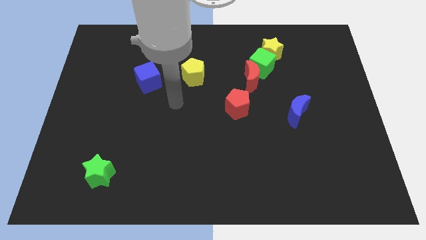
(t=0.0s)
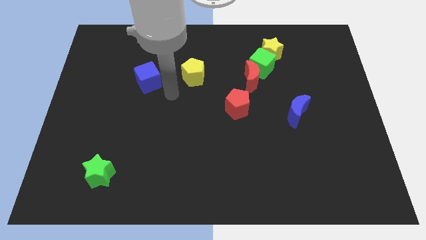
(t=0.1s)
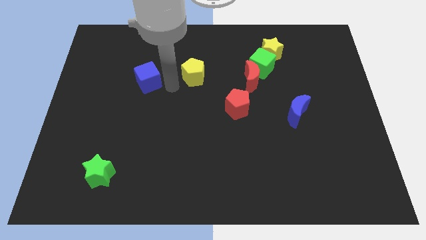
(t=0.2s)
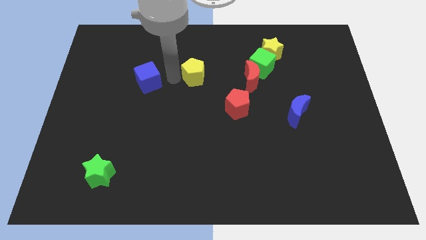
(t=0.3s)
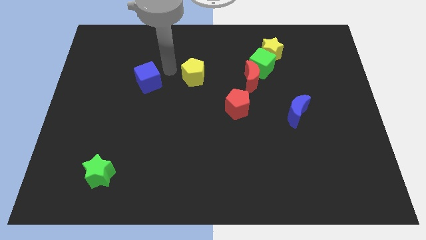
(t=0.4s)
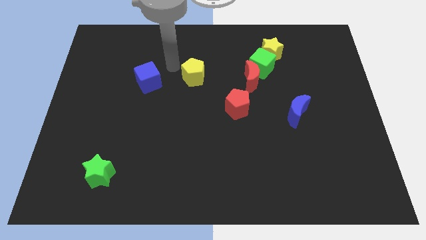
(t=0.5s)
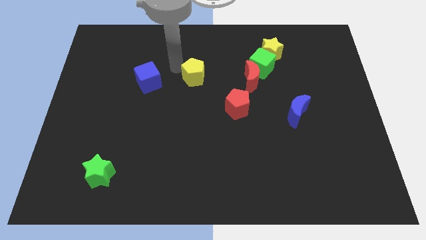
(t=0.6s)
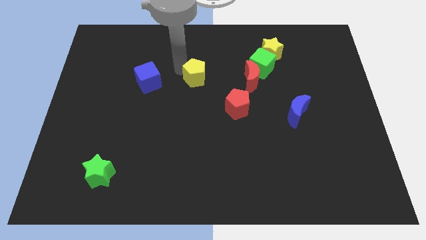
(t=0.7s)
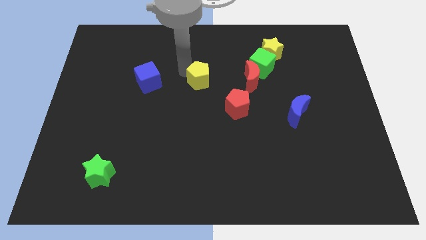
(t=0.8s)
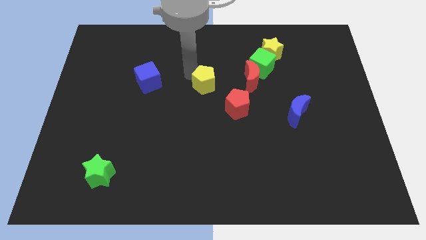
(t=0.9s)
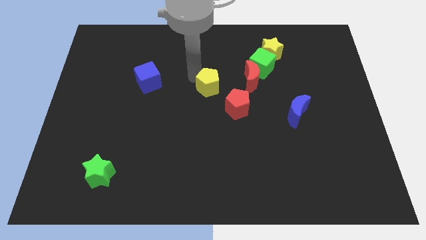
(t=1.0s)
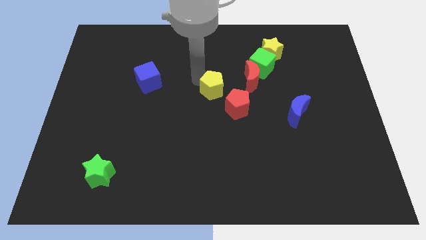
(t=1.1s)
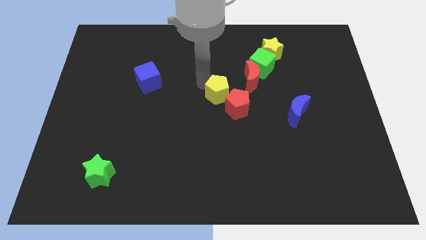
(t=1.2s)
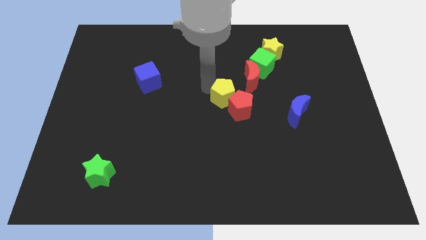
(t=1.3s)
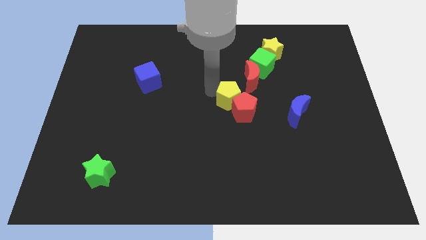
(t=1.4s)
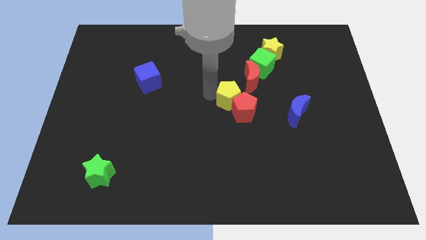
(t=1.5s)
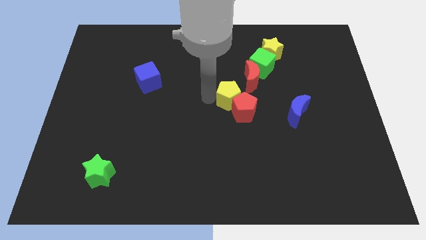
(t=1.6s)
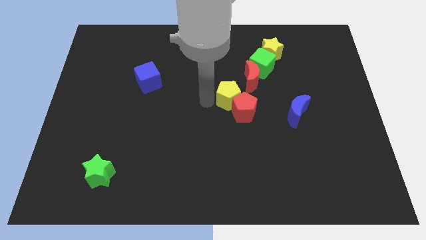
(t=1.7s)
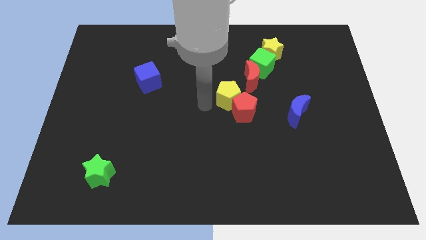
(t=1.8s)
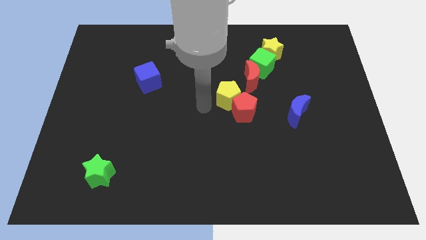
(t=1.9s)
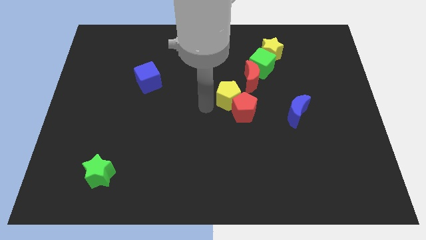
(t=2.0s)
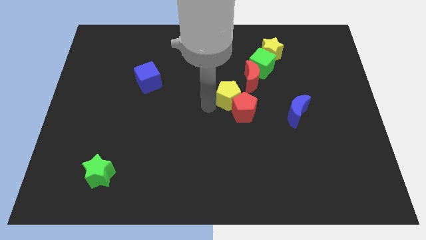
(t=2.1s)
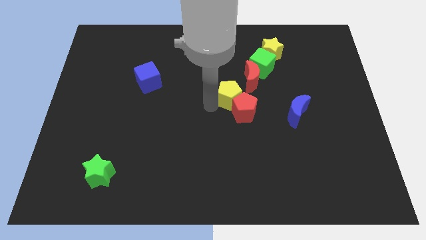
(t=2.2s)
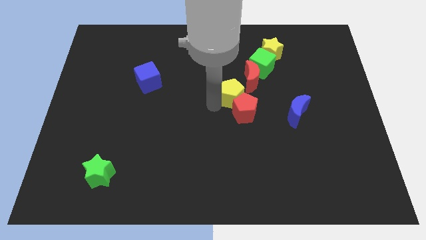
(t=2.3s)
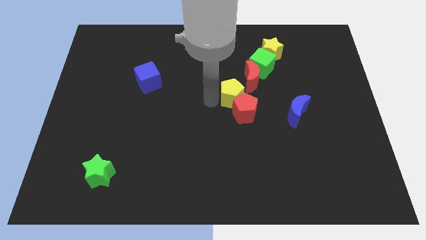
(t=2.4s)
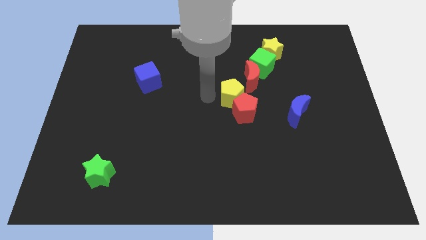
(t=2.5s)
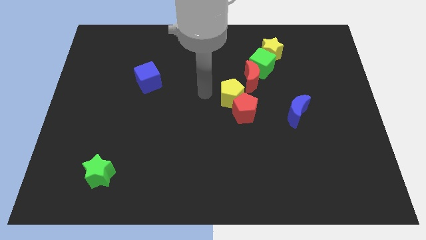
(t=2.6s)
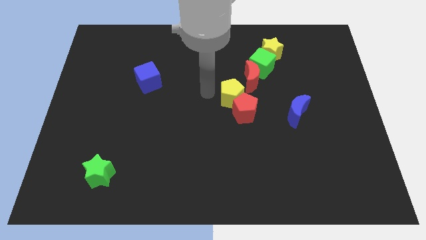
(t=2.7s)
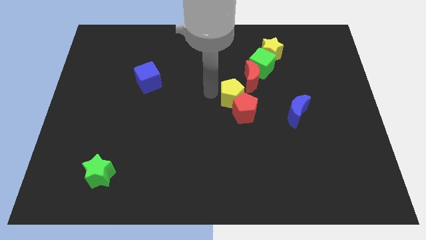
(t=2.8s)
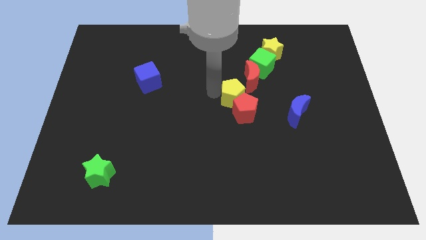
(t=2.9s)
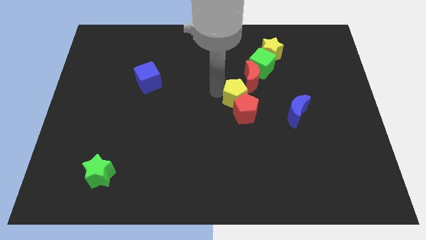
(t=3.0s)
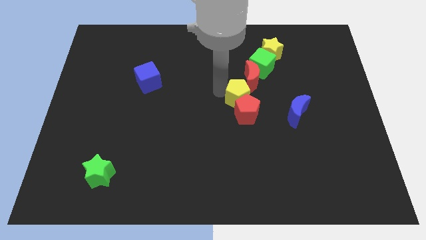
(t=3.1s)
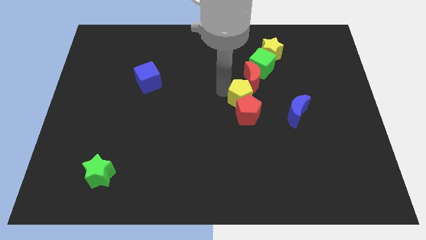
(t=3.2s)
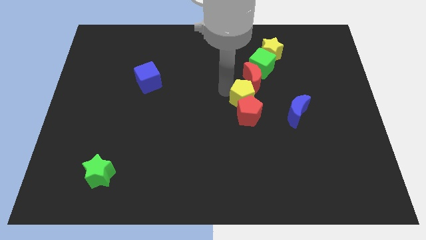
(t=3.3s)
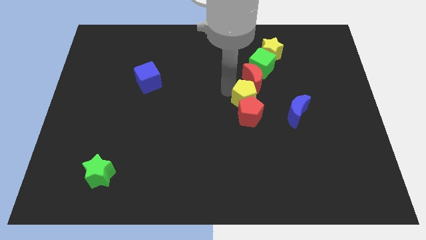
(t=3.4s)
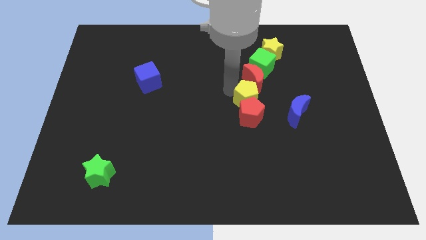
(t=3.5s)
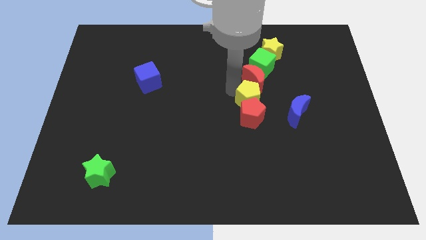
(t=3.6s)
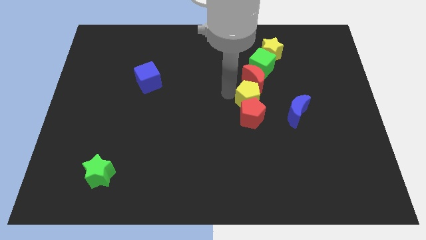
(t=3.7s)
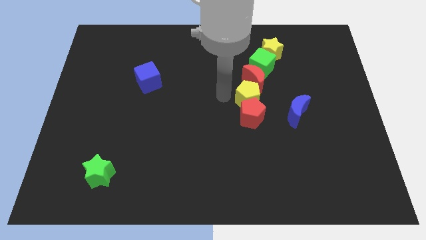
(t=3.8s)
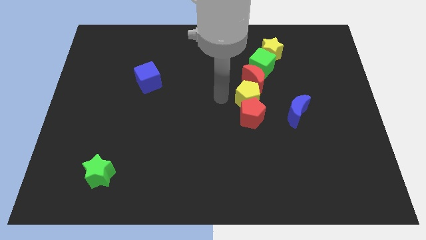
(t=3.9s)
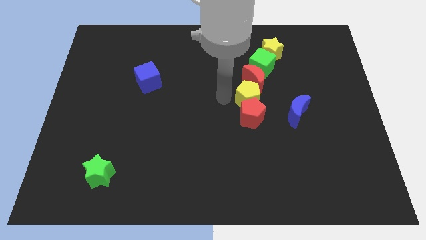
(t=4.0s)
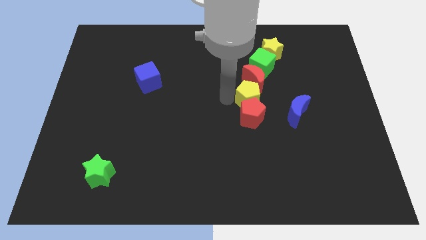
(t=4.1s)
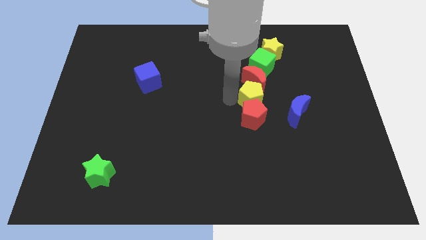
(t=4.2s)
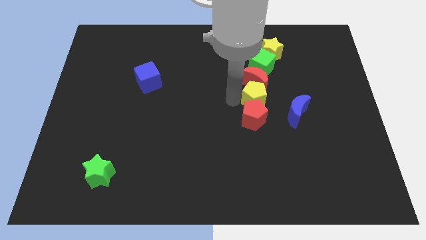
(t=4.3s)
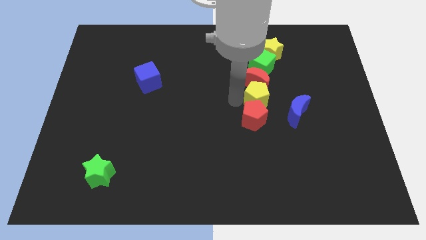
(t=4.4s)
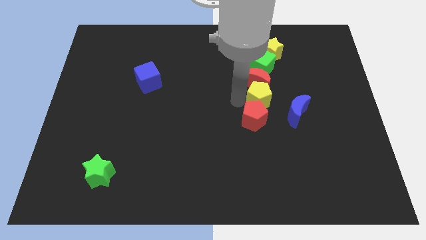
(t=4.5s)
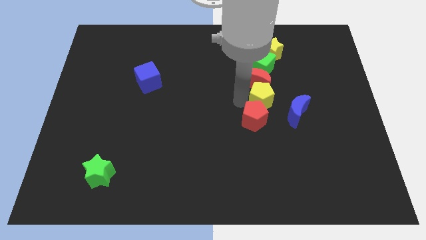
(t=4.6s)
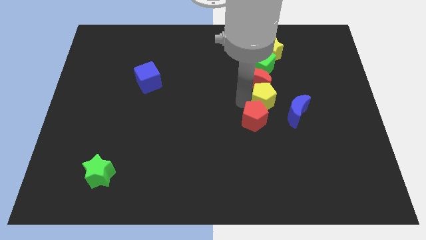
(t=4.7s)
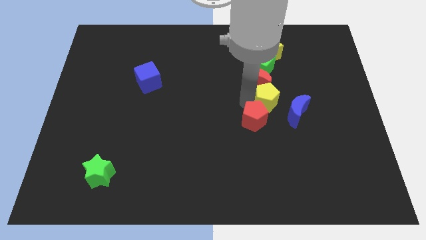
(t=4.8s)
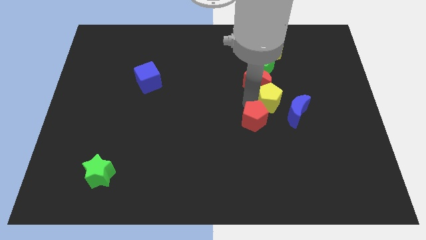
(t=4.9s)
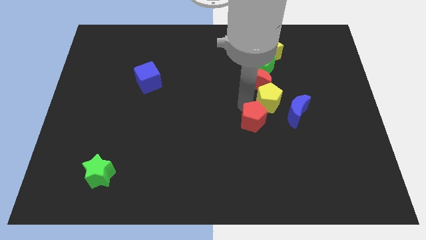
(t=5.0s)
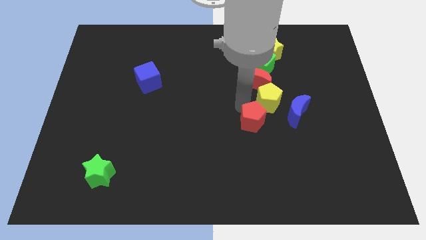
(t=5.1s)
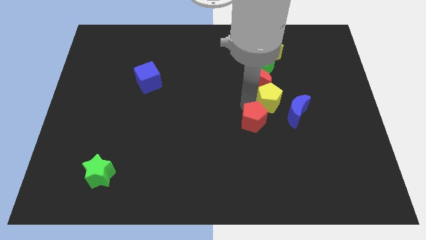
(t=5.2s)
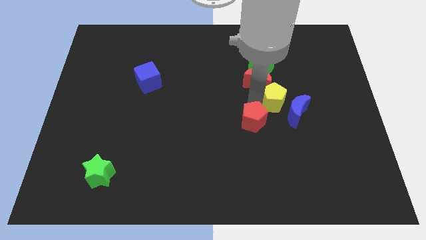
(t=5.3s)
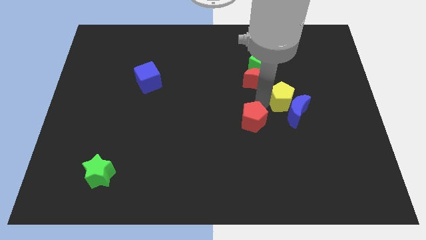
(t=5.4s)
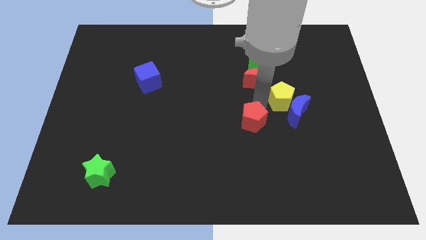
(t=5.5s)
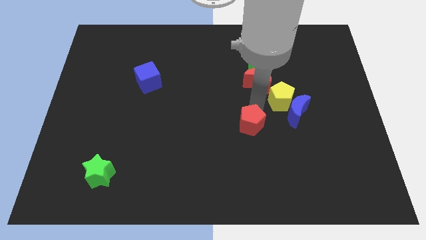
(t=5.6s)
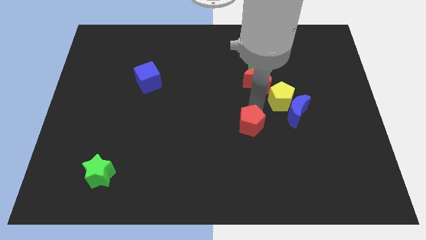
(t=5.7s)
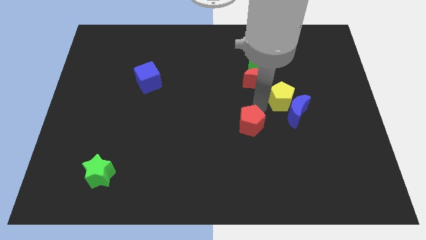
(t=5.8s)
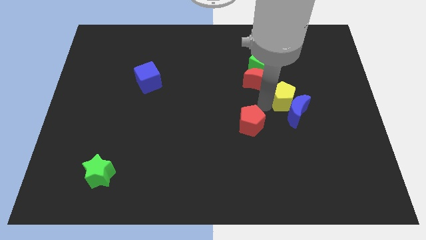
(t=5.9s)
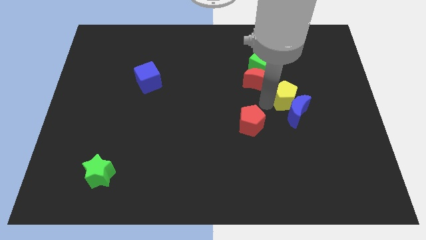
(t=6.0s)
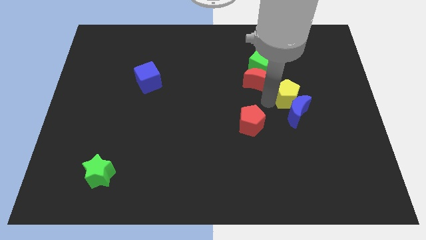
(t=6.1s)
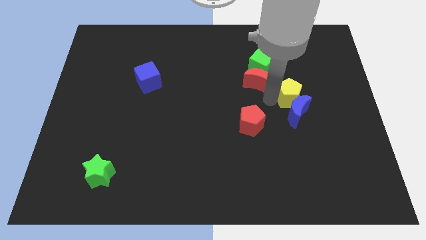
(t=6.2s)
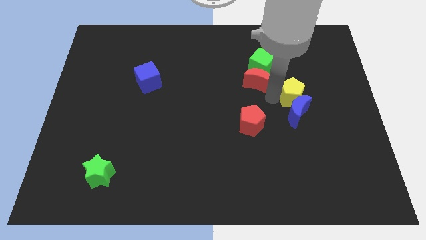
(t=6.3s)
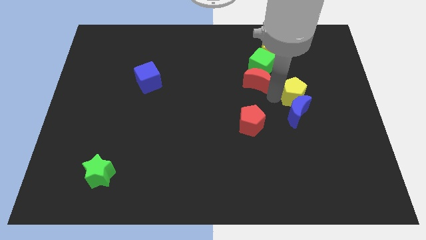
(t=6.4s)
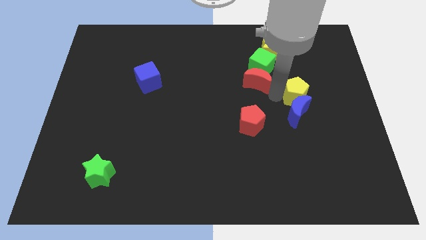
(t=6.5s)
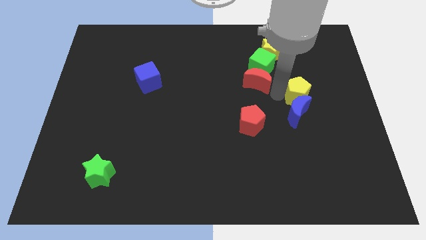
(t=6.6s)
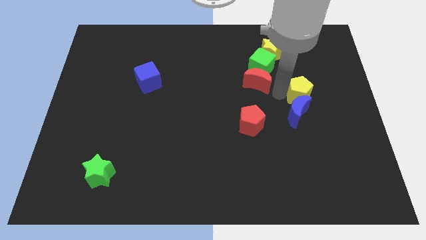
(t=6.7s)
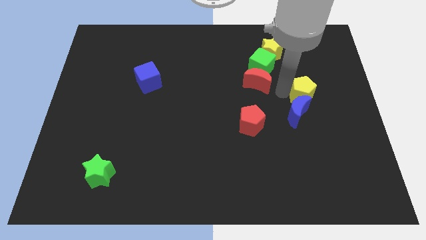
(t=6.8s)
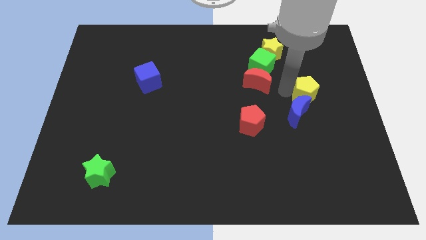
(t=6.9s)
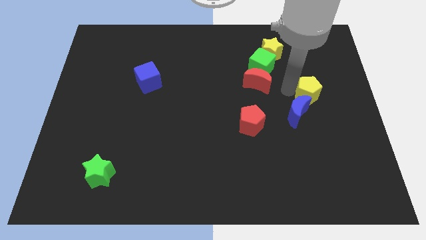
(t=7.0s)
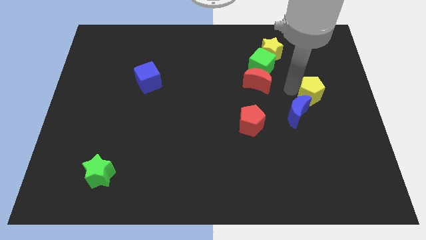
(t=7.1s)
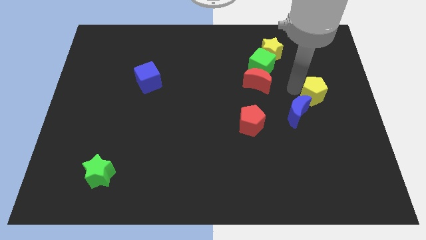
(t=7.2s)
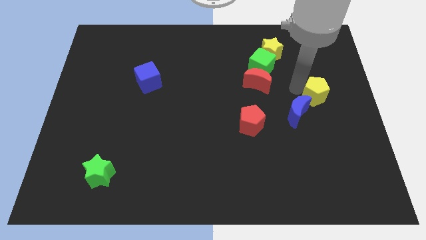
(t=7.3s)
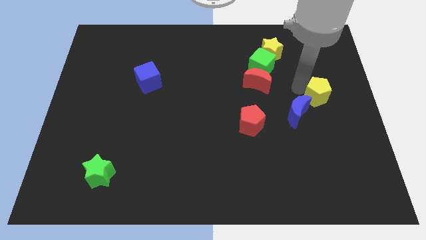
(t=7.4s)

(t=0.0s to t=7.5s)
put the yellow pentagon to the right side
